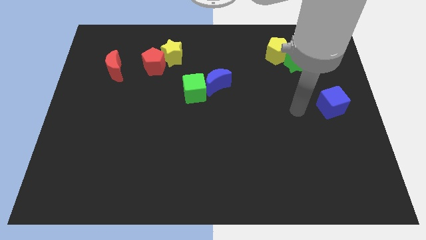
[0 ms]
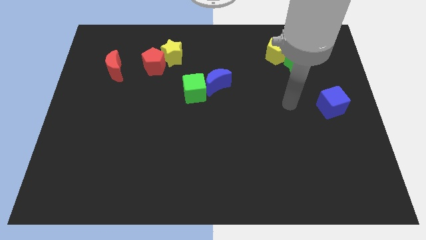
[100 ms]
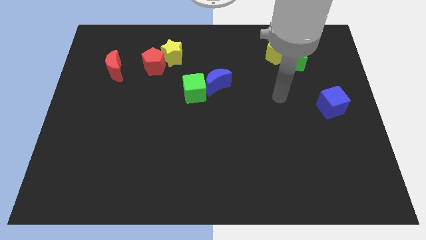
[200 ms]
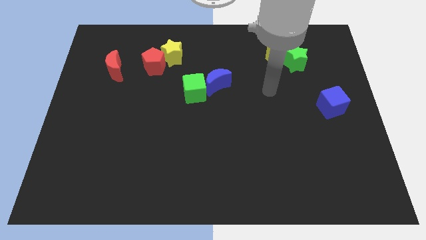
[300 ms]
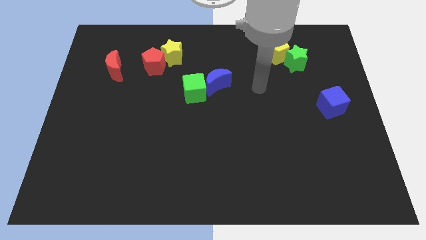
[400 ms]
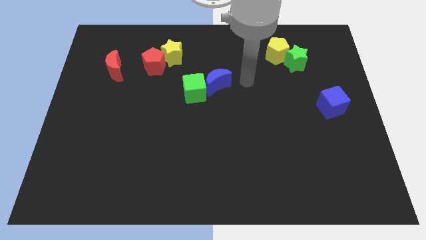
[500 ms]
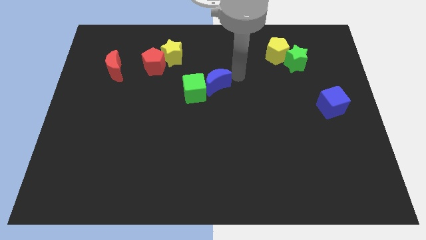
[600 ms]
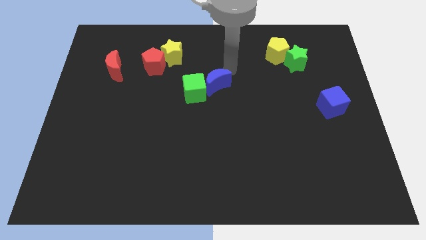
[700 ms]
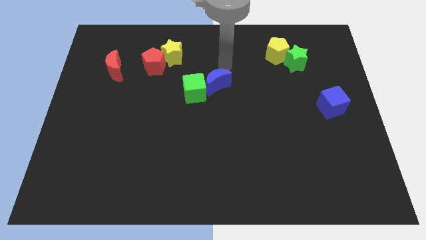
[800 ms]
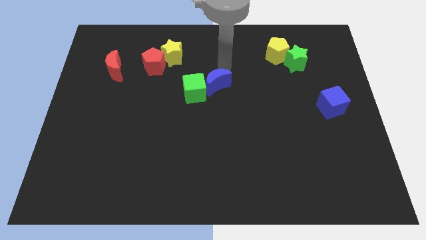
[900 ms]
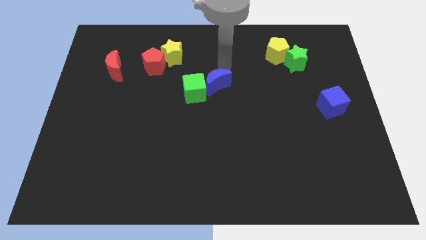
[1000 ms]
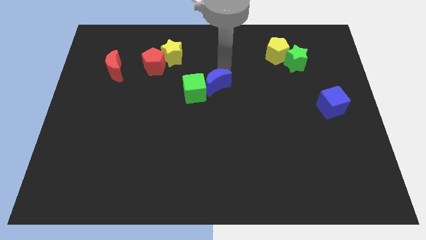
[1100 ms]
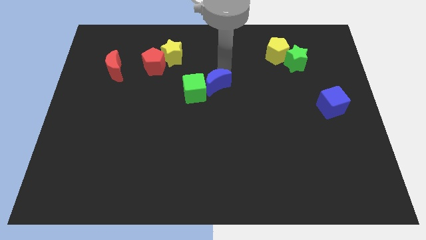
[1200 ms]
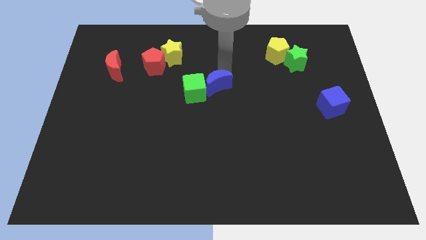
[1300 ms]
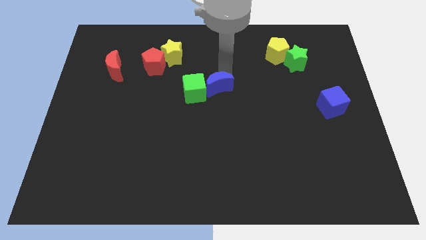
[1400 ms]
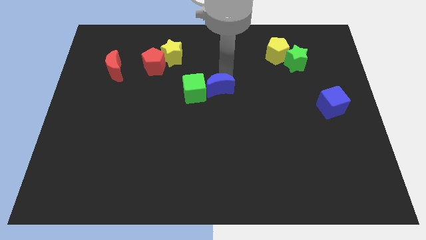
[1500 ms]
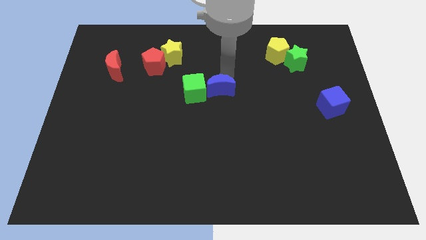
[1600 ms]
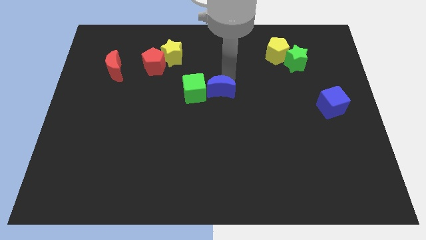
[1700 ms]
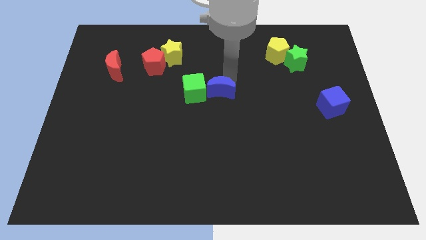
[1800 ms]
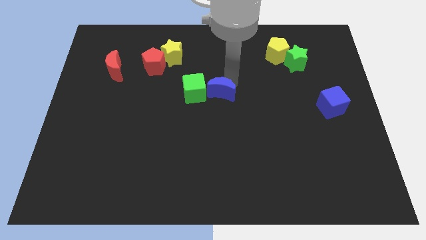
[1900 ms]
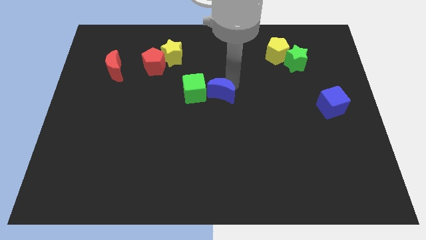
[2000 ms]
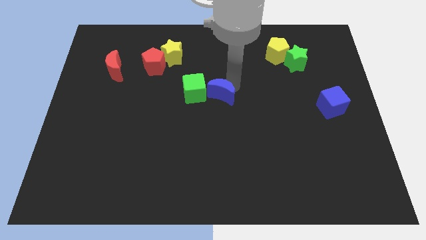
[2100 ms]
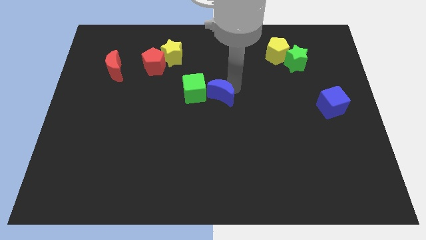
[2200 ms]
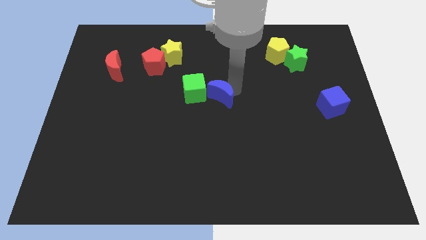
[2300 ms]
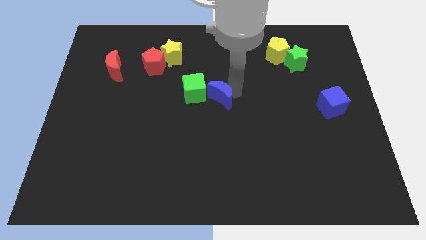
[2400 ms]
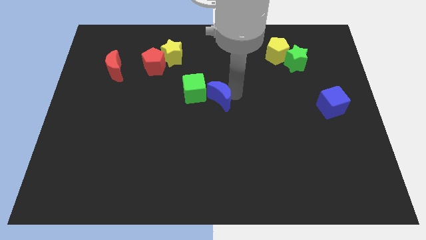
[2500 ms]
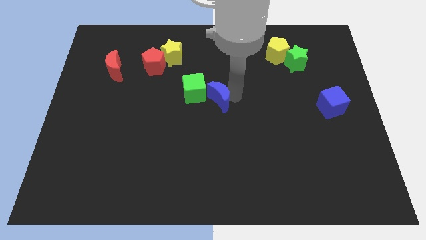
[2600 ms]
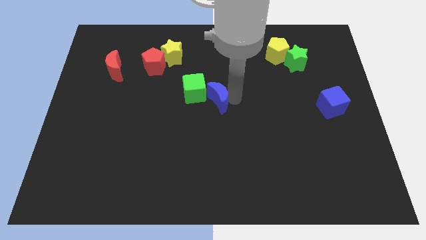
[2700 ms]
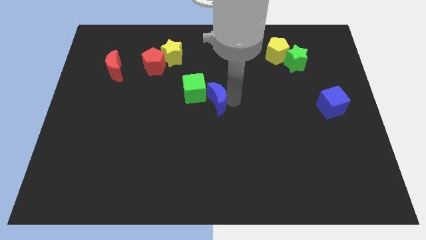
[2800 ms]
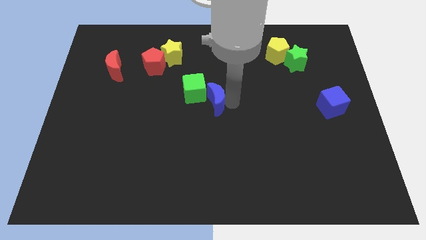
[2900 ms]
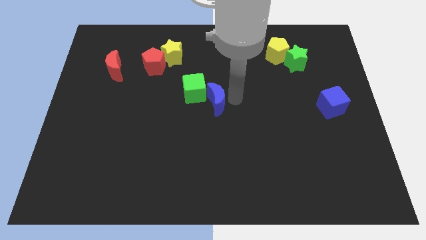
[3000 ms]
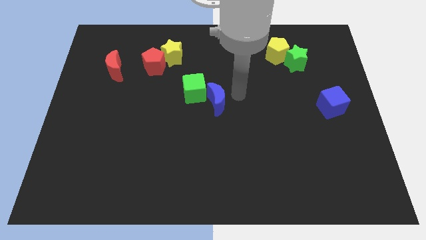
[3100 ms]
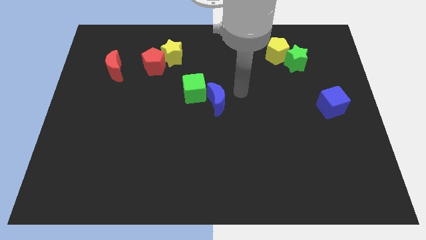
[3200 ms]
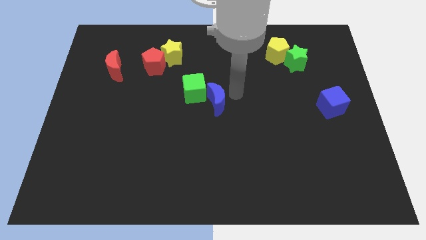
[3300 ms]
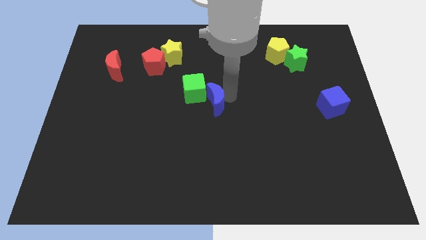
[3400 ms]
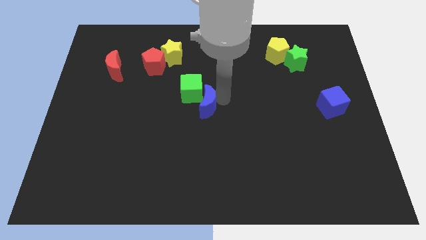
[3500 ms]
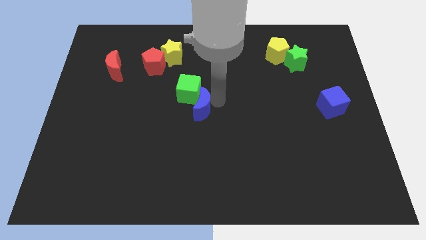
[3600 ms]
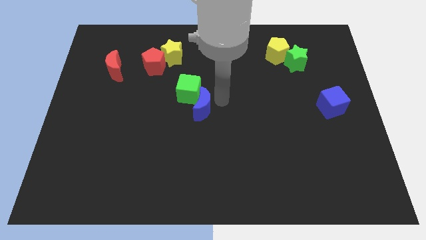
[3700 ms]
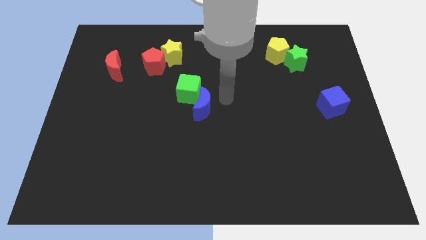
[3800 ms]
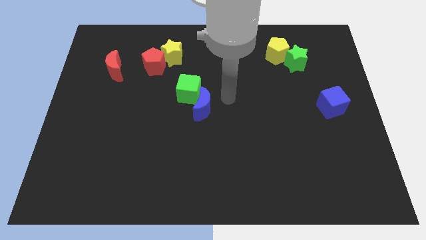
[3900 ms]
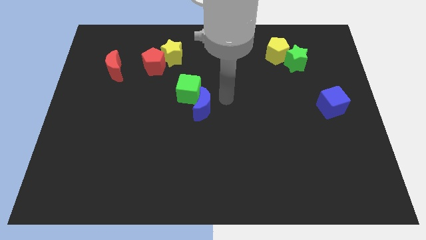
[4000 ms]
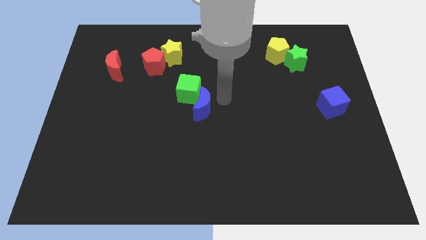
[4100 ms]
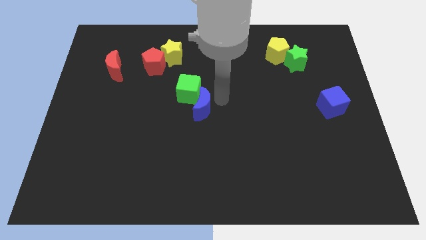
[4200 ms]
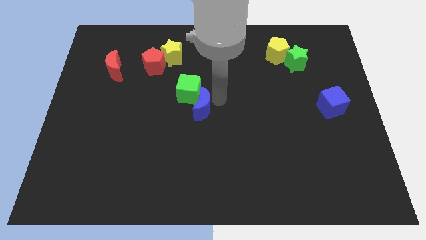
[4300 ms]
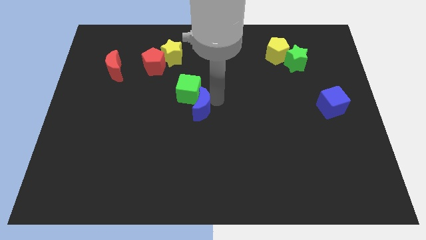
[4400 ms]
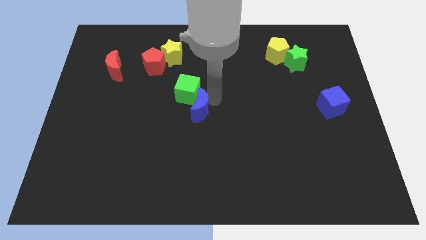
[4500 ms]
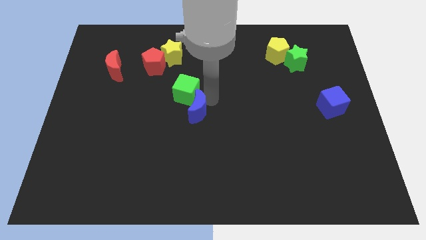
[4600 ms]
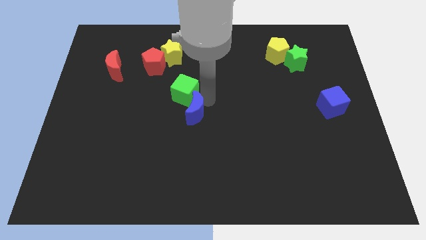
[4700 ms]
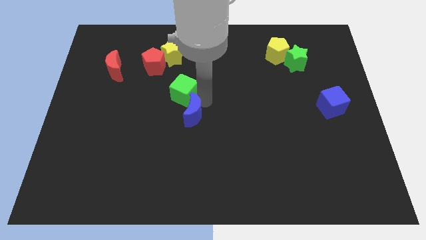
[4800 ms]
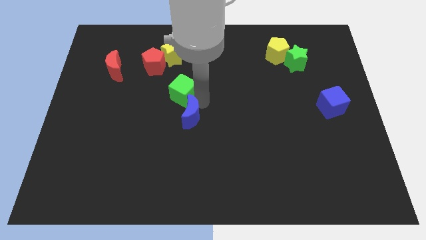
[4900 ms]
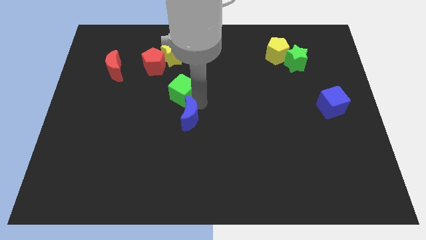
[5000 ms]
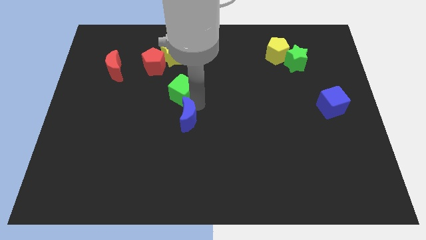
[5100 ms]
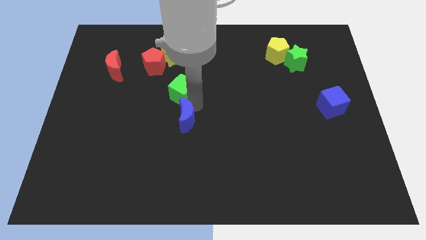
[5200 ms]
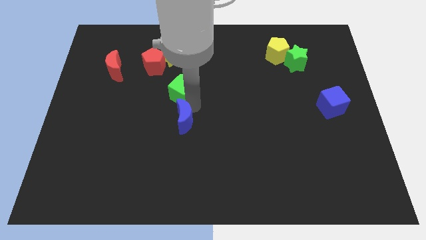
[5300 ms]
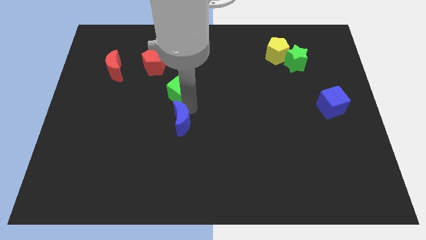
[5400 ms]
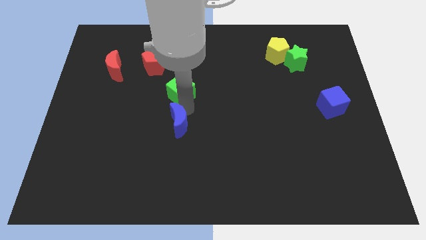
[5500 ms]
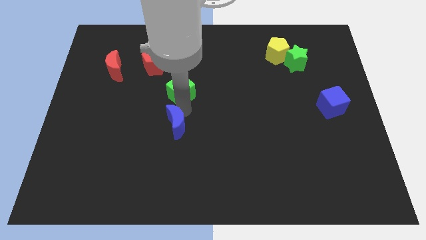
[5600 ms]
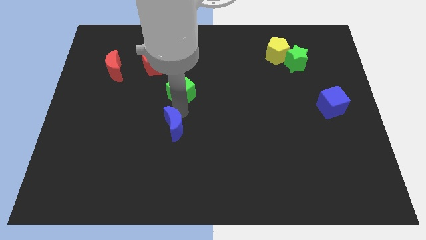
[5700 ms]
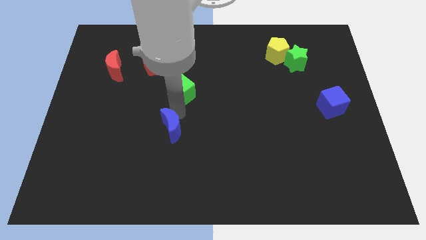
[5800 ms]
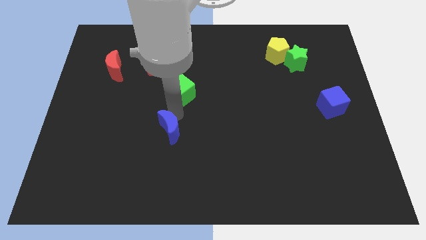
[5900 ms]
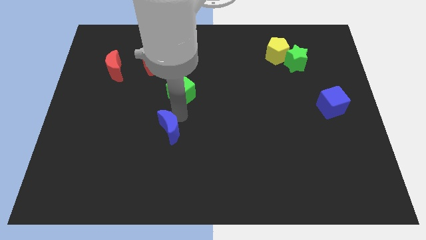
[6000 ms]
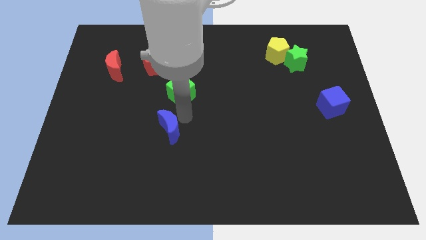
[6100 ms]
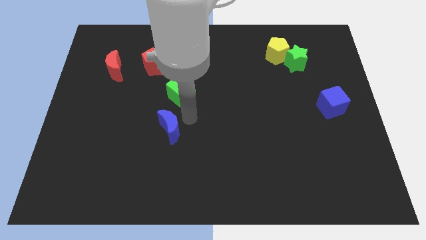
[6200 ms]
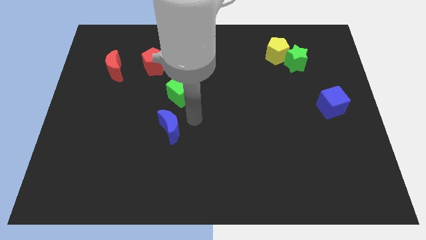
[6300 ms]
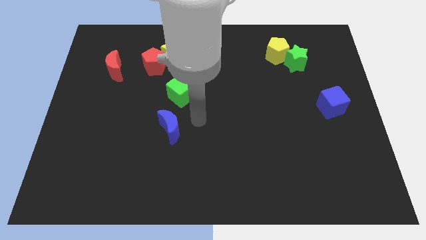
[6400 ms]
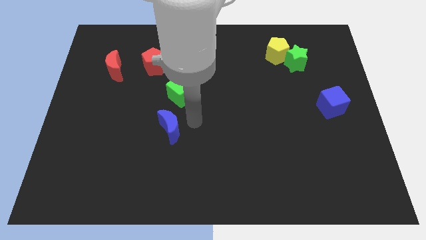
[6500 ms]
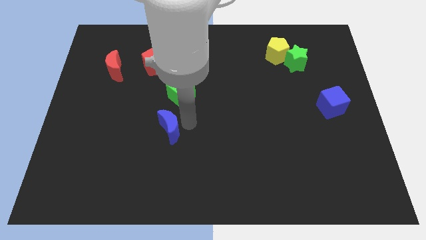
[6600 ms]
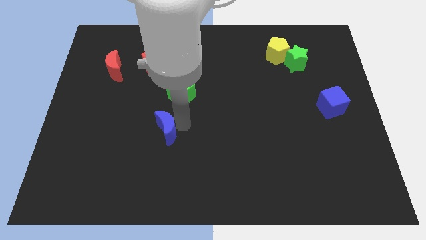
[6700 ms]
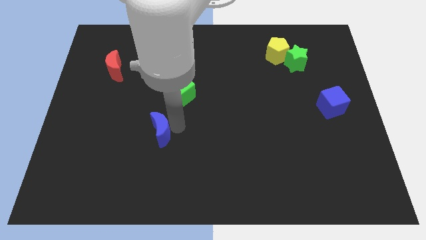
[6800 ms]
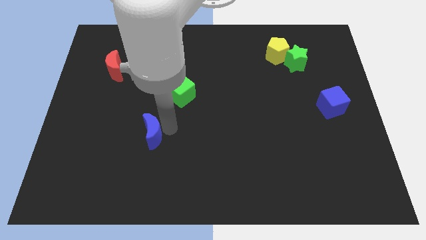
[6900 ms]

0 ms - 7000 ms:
slide the blue moon downwards and to the left

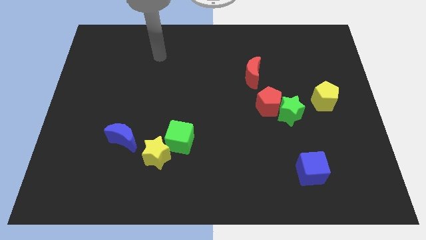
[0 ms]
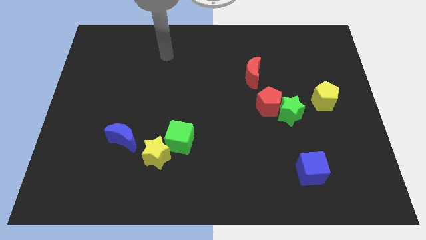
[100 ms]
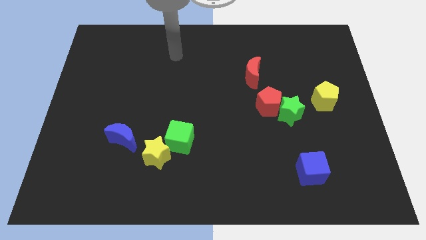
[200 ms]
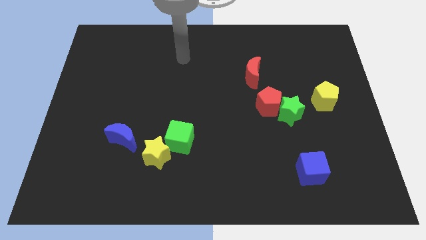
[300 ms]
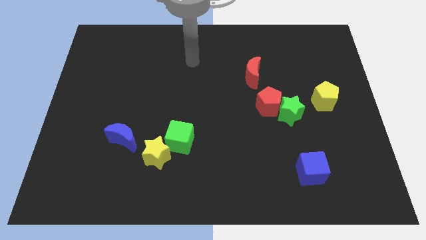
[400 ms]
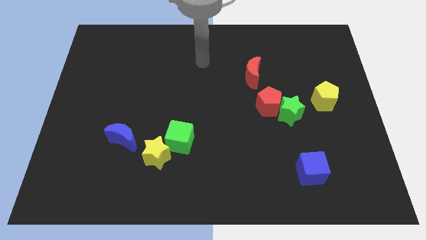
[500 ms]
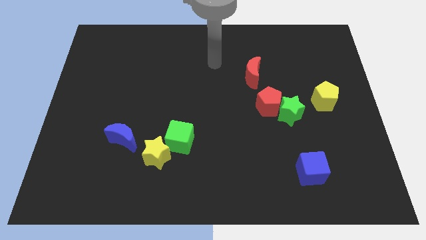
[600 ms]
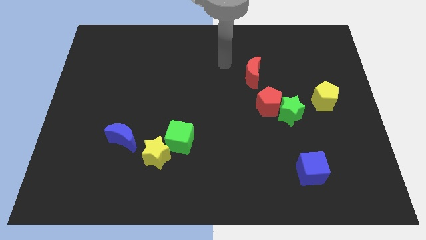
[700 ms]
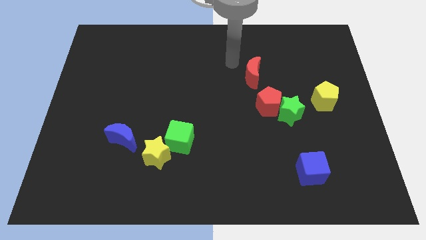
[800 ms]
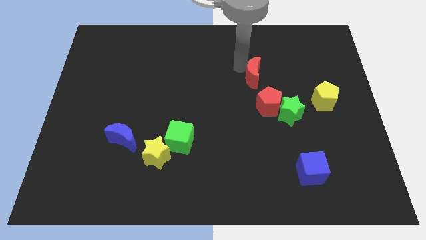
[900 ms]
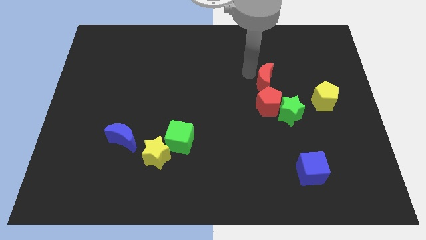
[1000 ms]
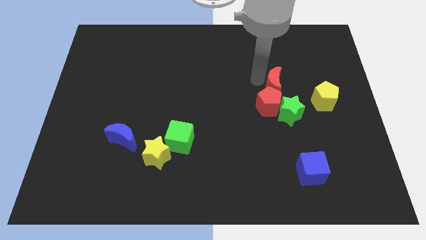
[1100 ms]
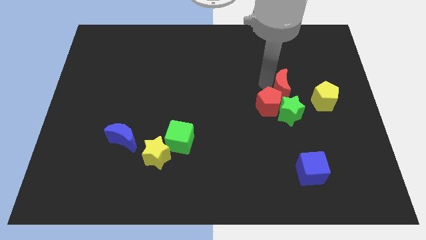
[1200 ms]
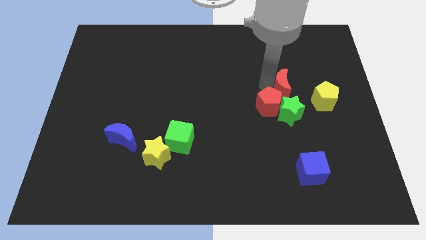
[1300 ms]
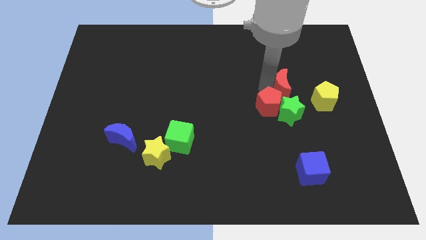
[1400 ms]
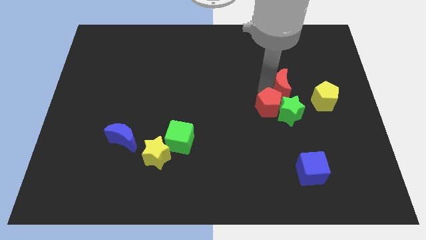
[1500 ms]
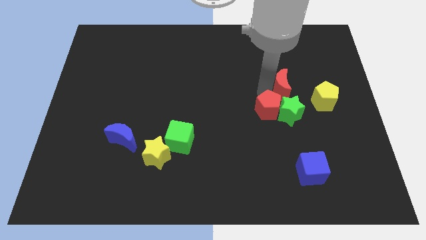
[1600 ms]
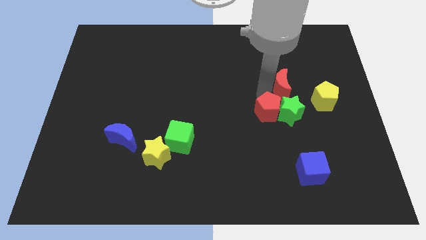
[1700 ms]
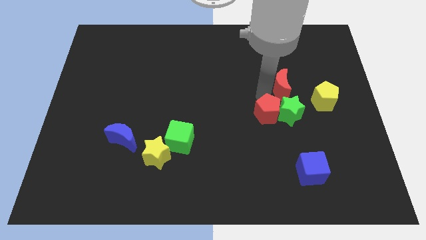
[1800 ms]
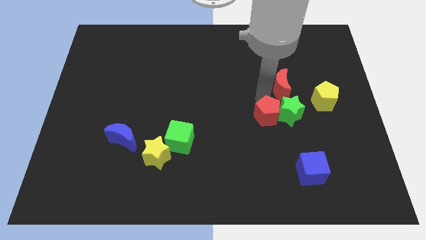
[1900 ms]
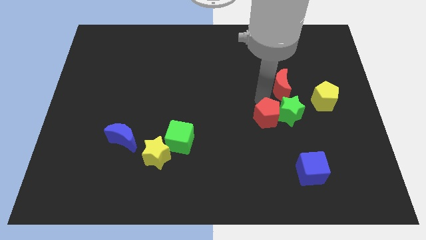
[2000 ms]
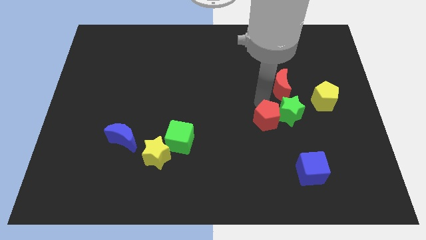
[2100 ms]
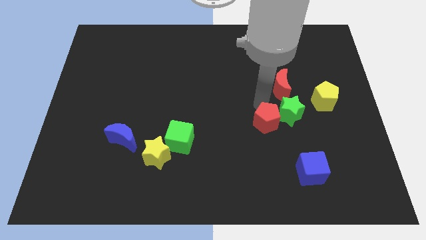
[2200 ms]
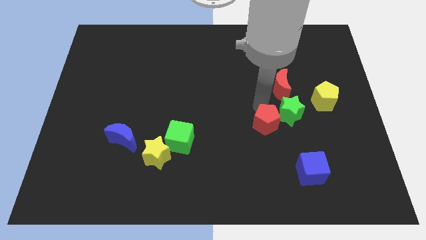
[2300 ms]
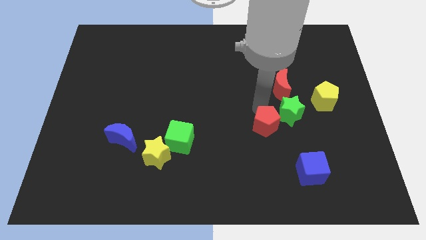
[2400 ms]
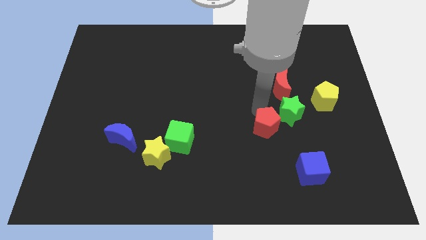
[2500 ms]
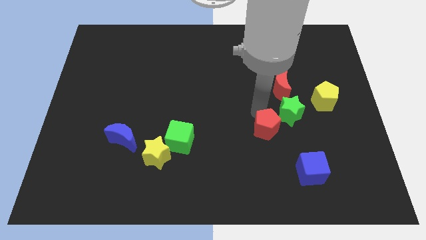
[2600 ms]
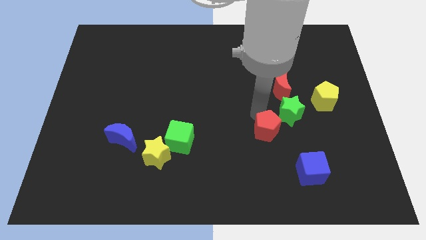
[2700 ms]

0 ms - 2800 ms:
slide the red pentagon down a bit
